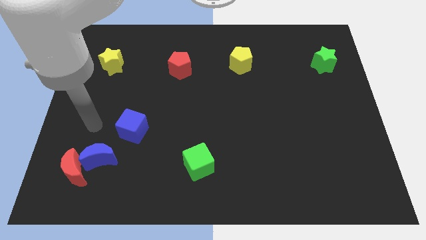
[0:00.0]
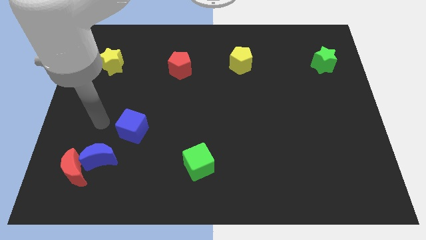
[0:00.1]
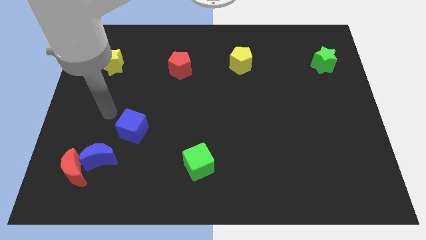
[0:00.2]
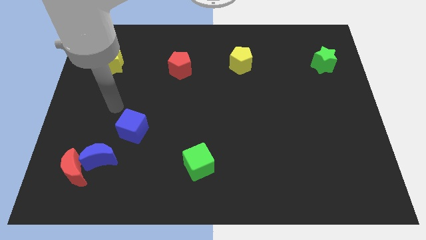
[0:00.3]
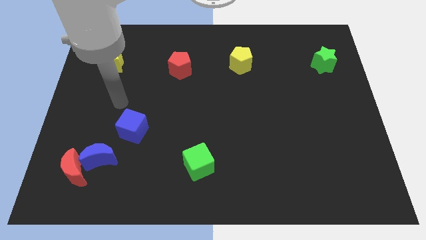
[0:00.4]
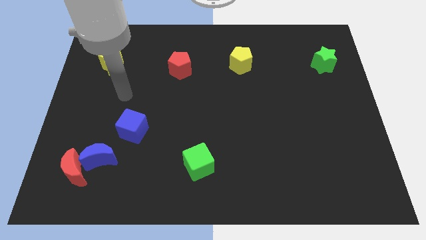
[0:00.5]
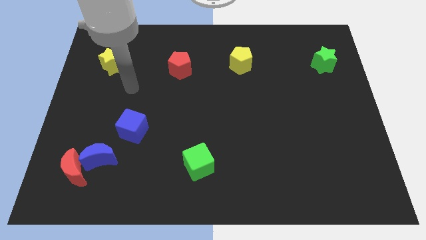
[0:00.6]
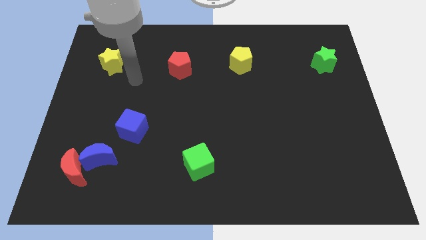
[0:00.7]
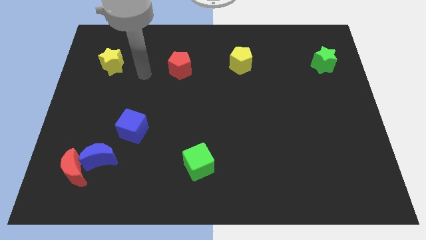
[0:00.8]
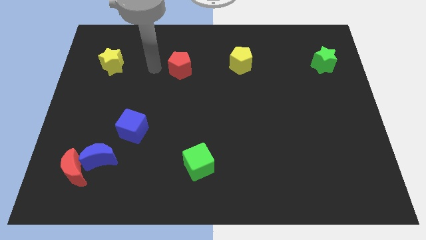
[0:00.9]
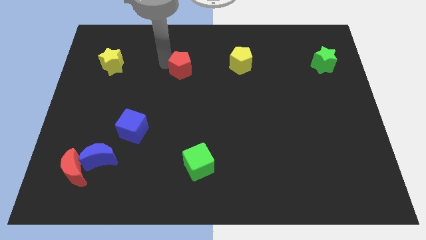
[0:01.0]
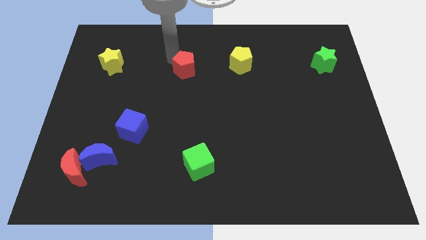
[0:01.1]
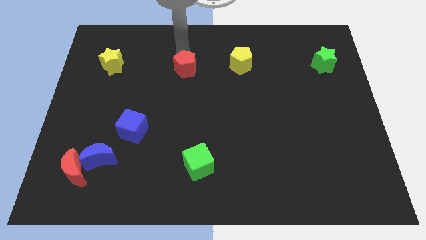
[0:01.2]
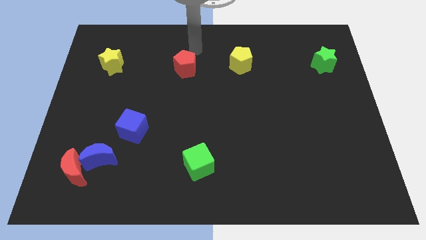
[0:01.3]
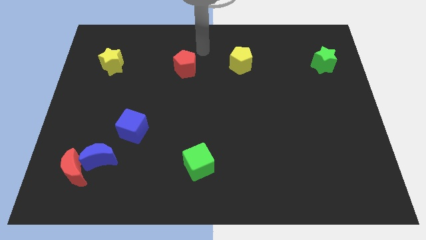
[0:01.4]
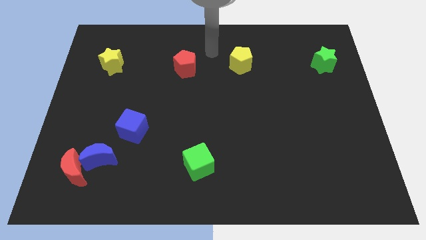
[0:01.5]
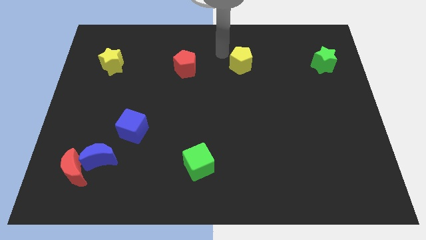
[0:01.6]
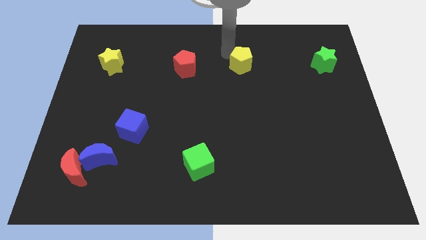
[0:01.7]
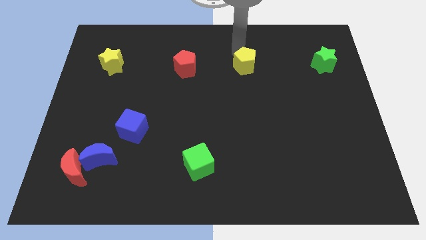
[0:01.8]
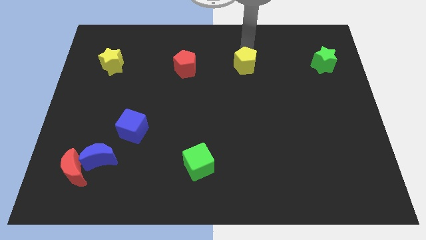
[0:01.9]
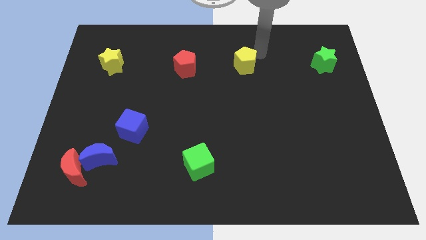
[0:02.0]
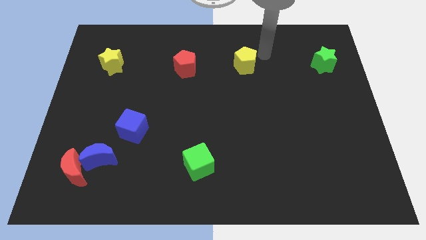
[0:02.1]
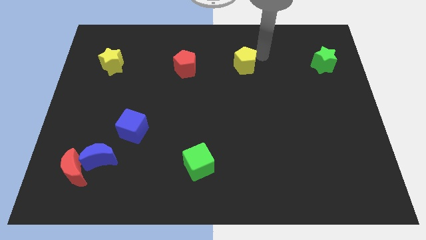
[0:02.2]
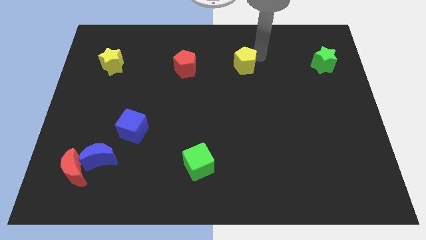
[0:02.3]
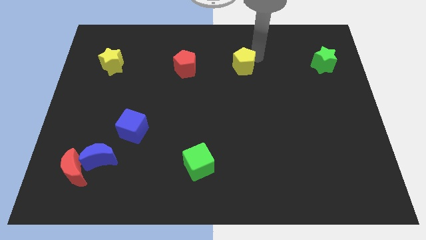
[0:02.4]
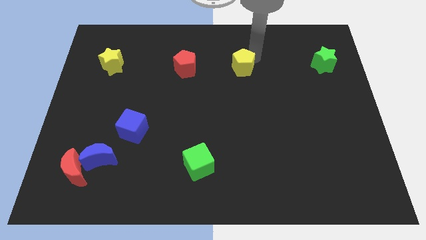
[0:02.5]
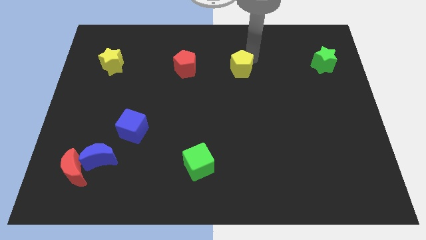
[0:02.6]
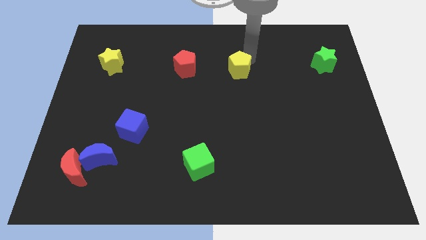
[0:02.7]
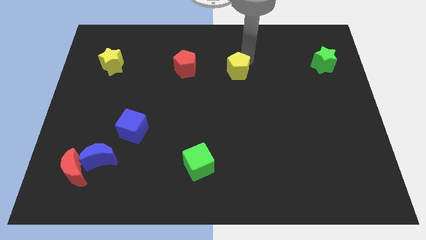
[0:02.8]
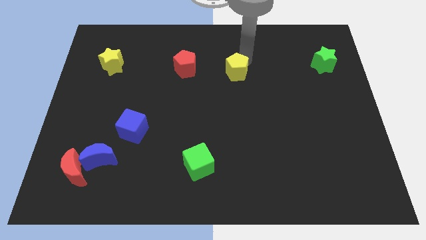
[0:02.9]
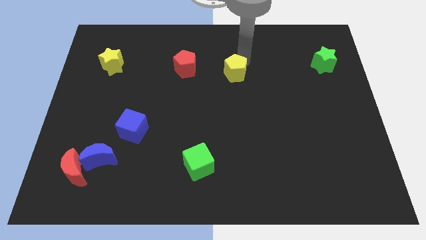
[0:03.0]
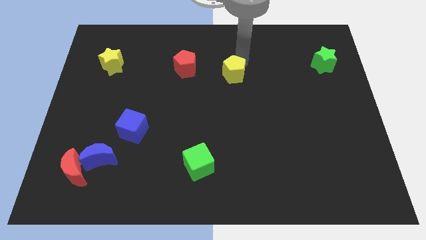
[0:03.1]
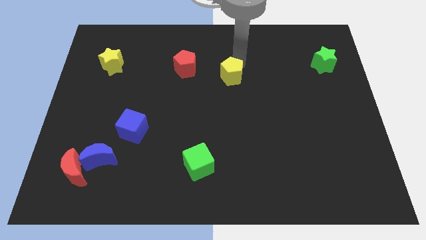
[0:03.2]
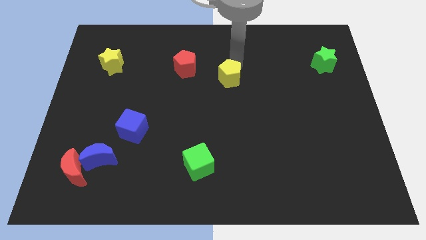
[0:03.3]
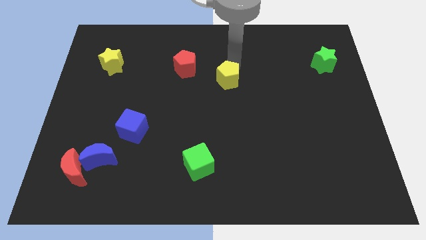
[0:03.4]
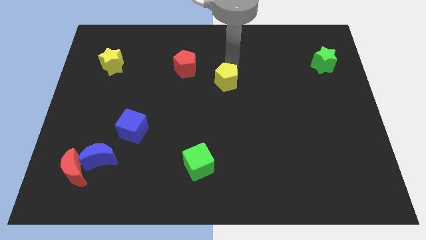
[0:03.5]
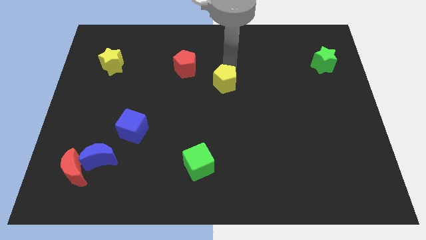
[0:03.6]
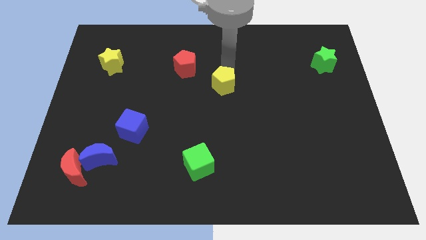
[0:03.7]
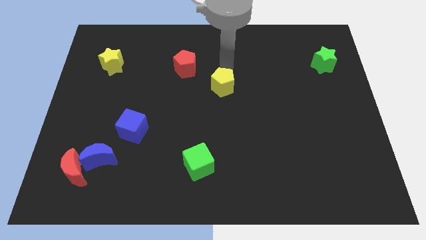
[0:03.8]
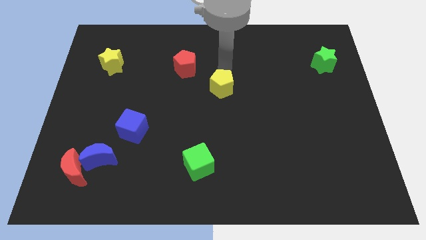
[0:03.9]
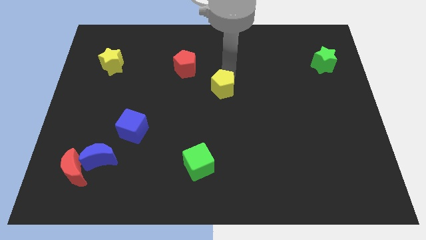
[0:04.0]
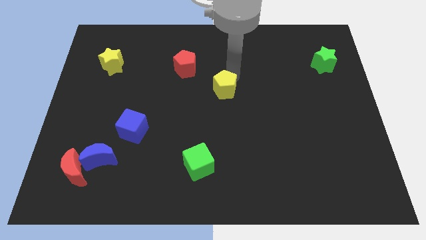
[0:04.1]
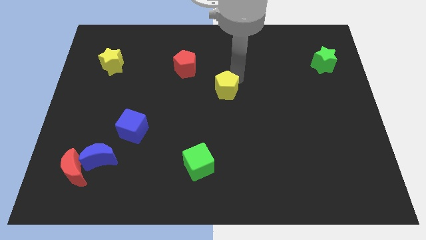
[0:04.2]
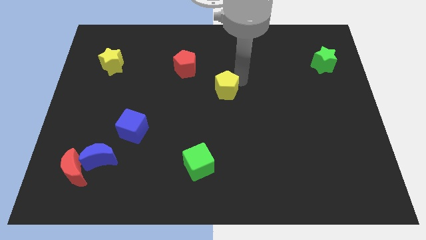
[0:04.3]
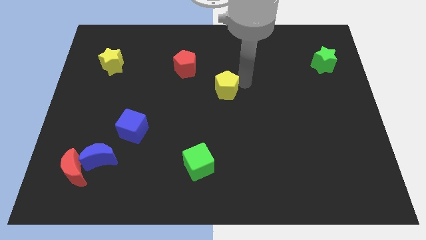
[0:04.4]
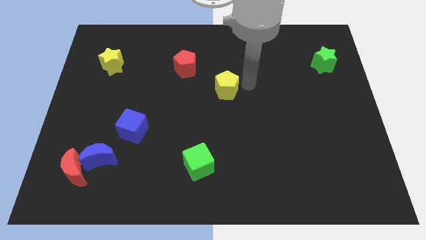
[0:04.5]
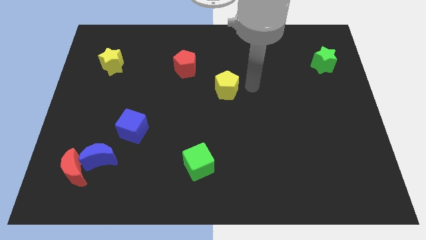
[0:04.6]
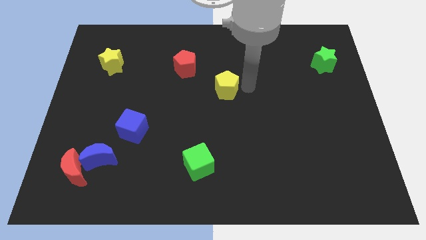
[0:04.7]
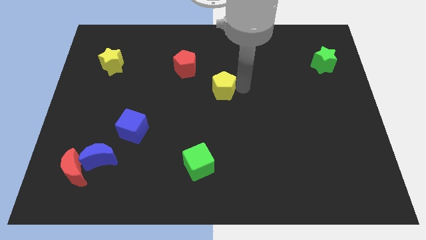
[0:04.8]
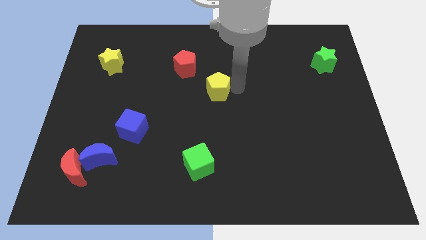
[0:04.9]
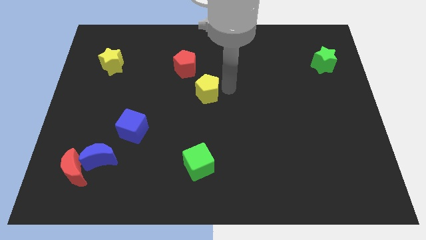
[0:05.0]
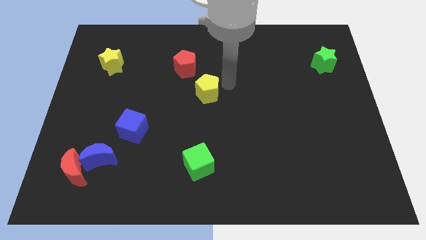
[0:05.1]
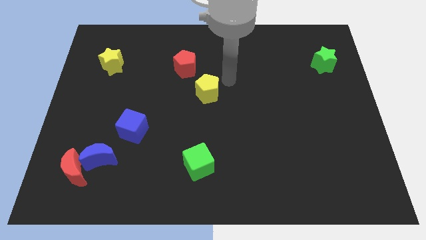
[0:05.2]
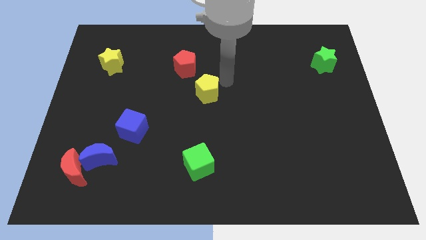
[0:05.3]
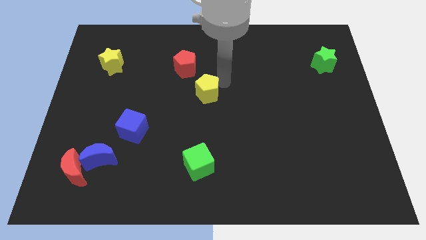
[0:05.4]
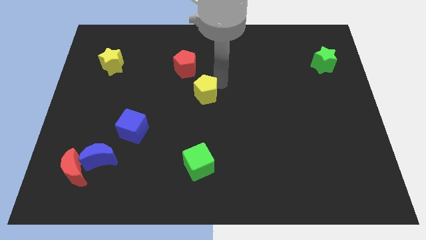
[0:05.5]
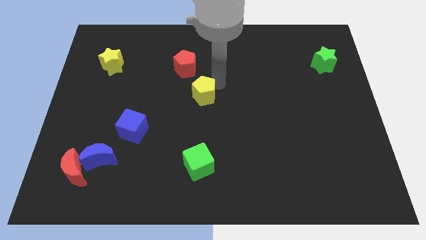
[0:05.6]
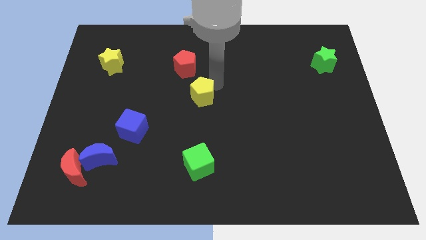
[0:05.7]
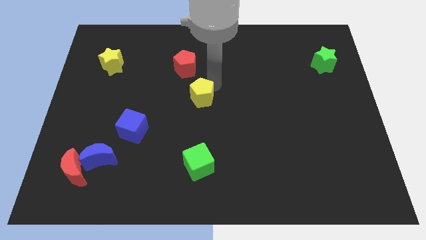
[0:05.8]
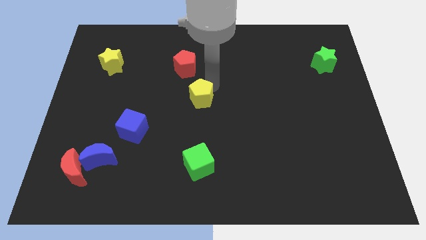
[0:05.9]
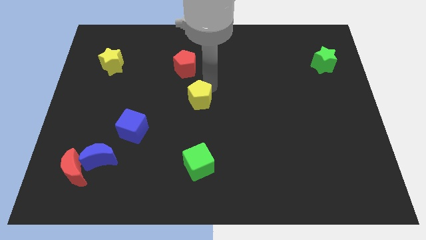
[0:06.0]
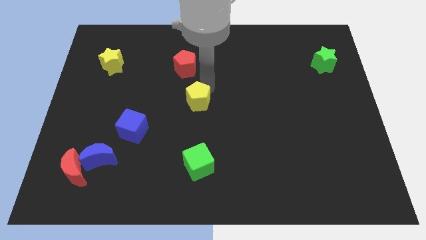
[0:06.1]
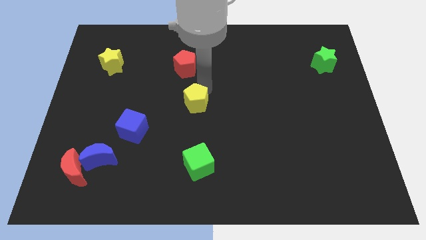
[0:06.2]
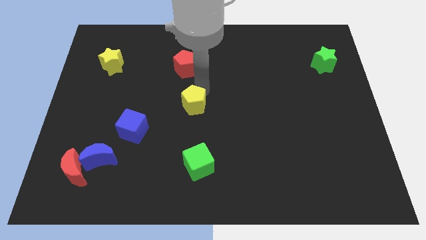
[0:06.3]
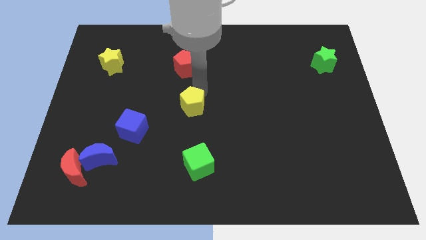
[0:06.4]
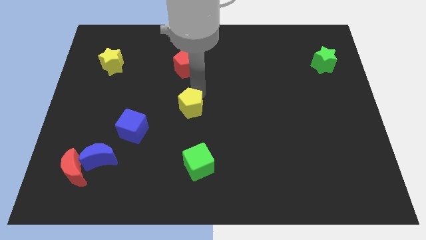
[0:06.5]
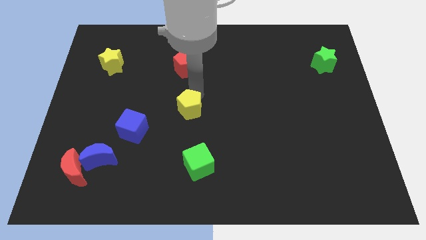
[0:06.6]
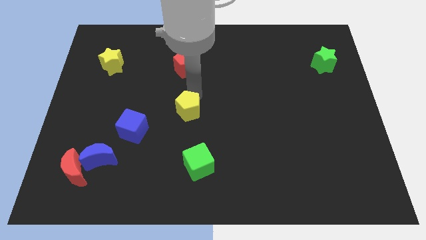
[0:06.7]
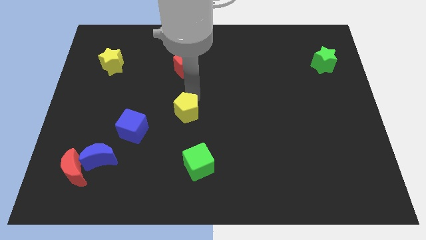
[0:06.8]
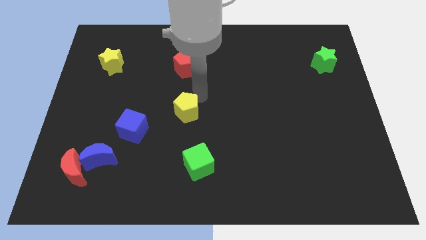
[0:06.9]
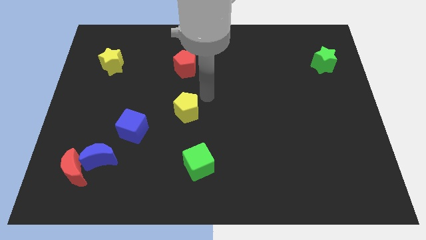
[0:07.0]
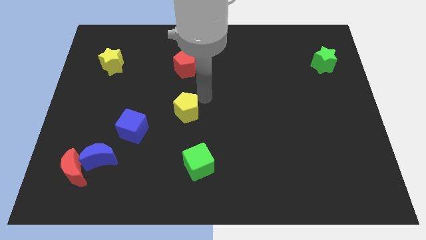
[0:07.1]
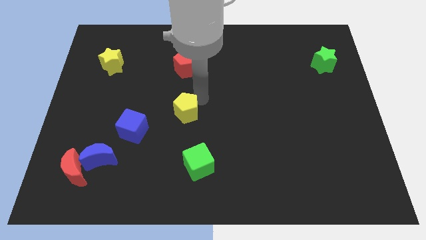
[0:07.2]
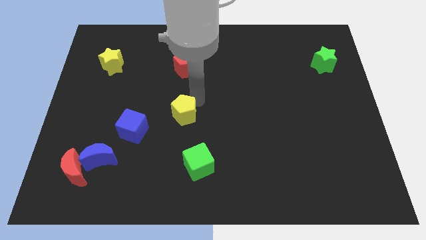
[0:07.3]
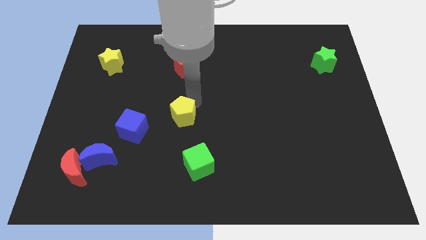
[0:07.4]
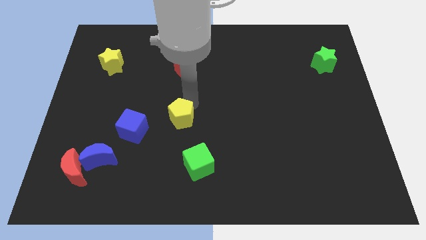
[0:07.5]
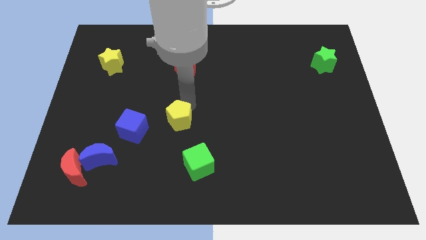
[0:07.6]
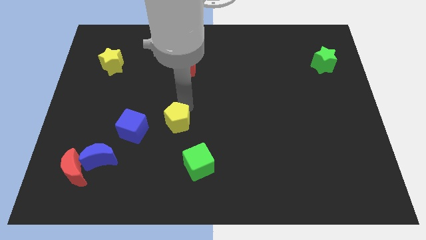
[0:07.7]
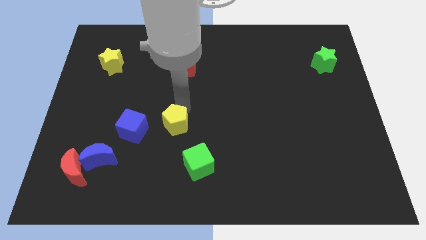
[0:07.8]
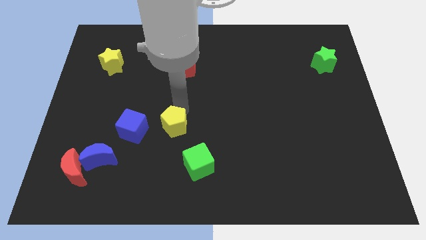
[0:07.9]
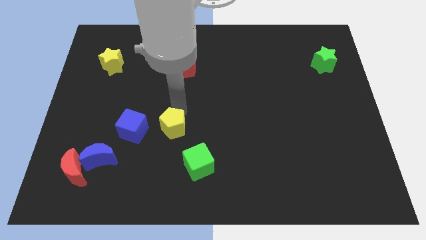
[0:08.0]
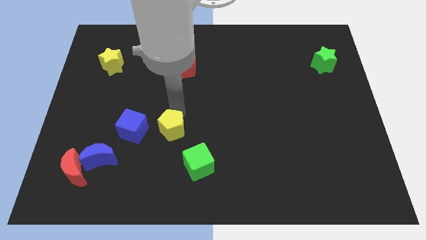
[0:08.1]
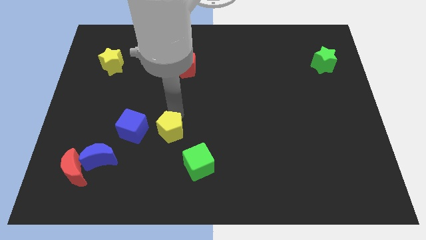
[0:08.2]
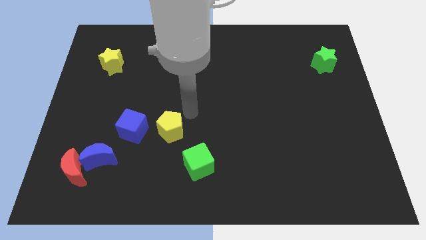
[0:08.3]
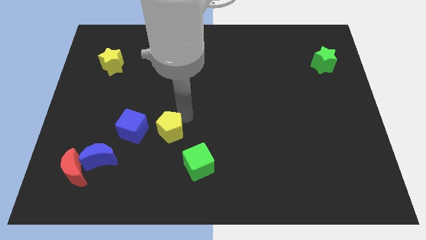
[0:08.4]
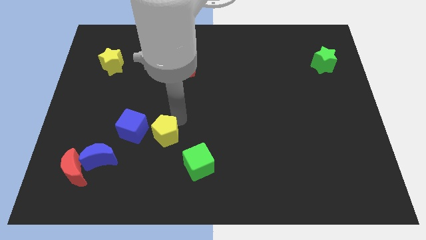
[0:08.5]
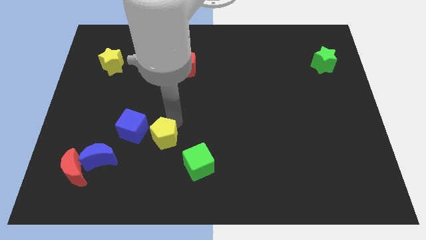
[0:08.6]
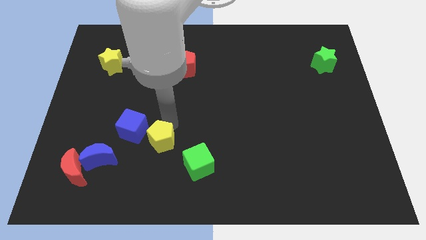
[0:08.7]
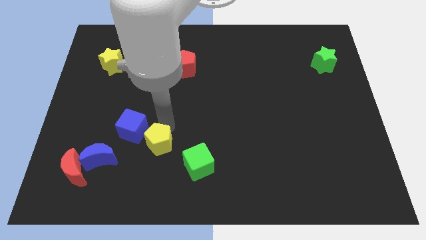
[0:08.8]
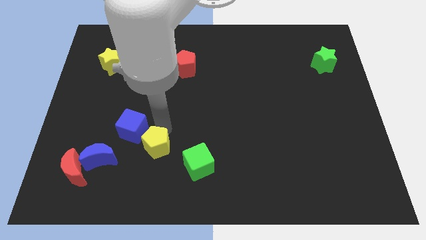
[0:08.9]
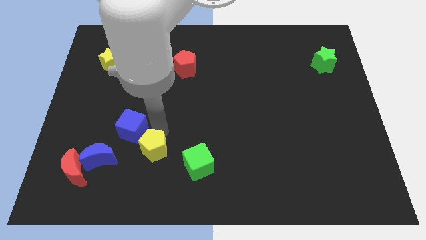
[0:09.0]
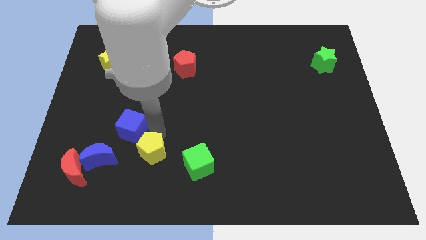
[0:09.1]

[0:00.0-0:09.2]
move the yellow pentagon to the bottom side of the blue cube
